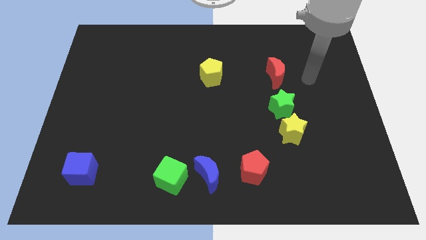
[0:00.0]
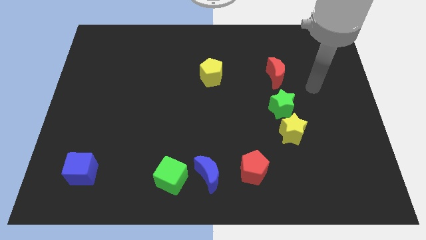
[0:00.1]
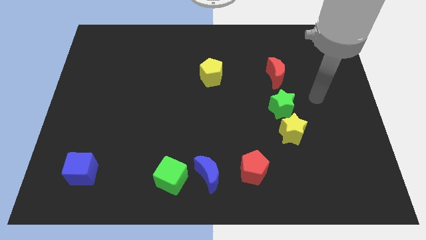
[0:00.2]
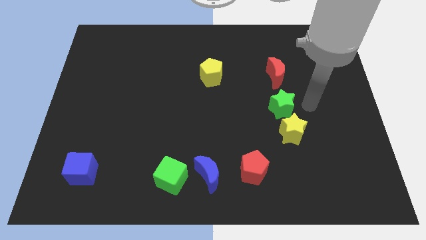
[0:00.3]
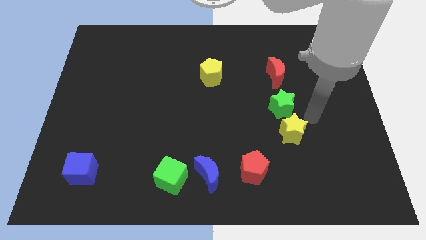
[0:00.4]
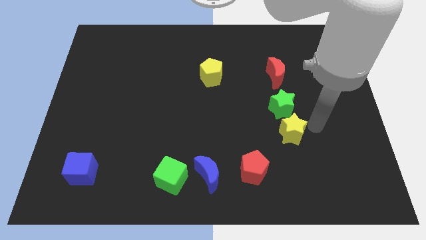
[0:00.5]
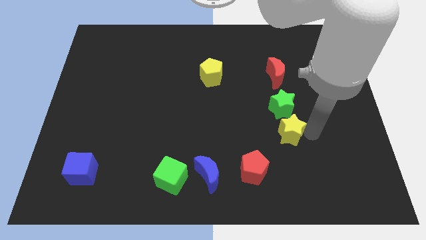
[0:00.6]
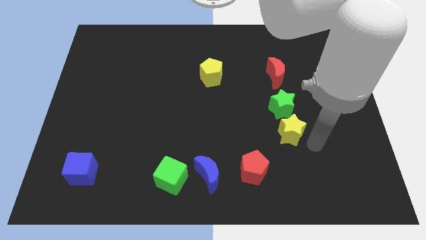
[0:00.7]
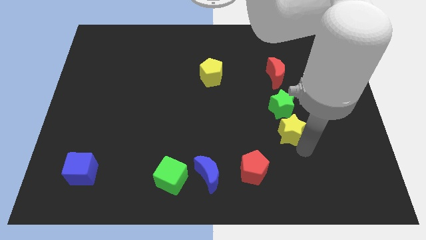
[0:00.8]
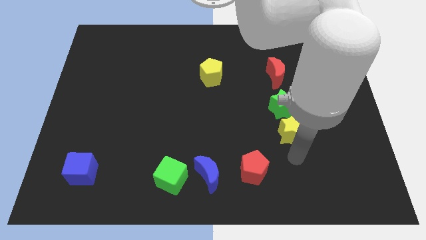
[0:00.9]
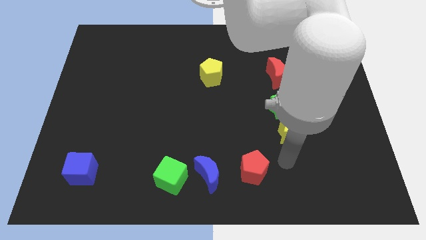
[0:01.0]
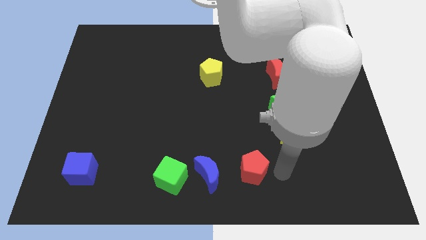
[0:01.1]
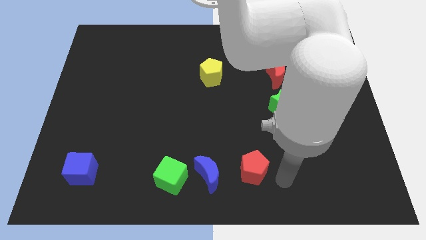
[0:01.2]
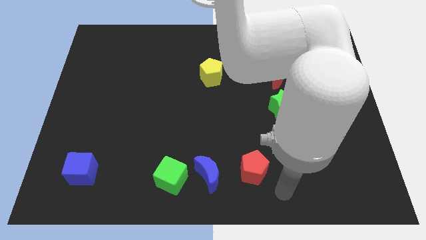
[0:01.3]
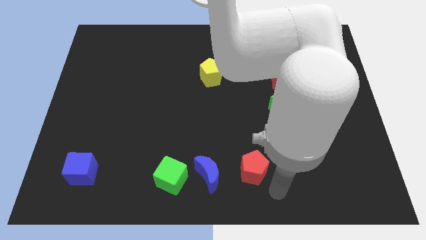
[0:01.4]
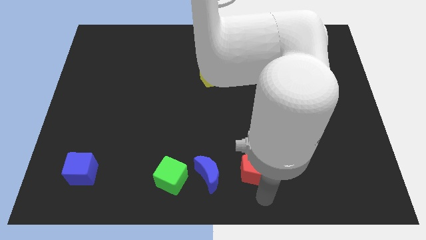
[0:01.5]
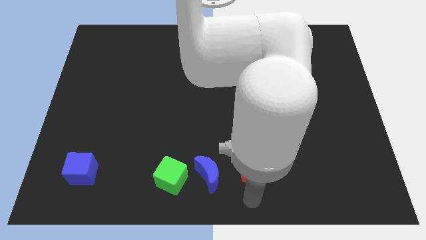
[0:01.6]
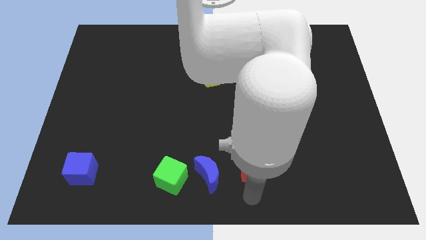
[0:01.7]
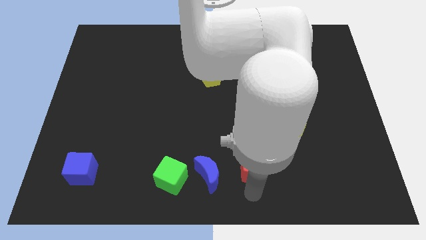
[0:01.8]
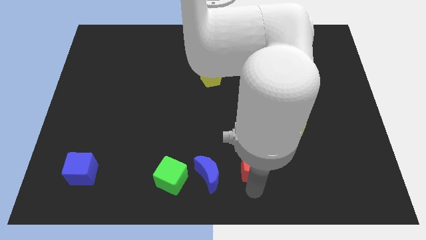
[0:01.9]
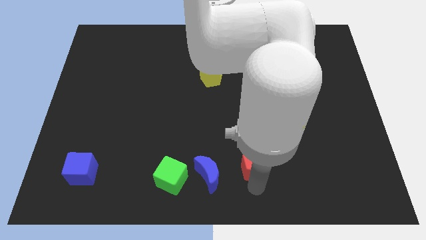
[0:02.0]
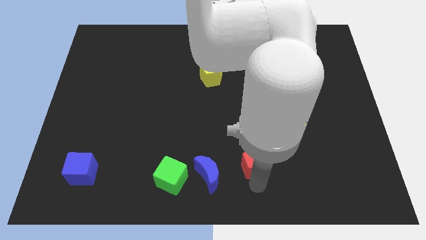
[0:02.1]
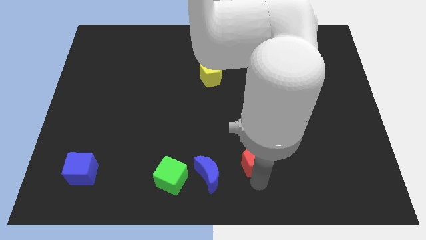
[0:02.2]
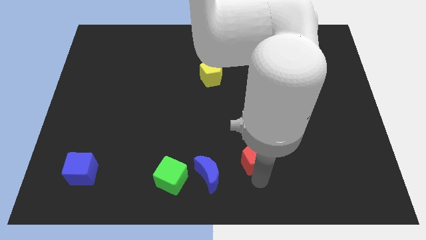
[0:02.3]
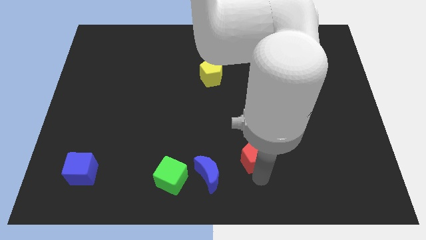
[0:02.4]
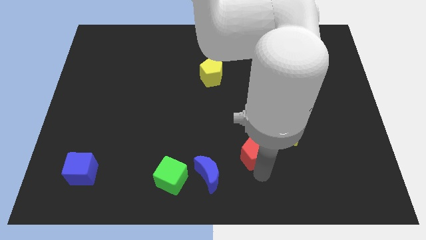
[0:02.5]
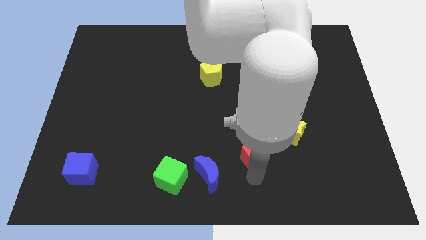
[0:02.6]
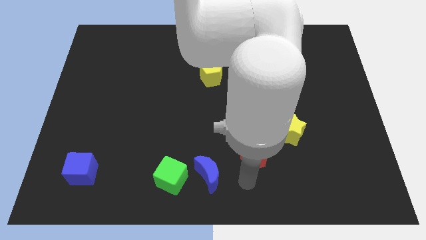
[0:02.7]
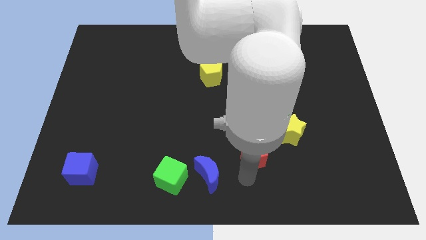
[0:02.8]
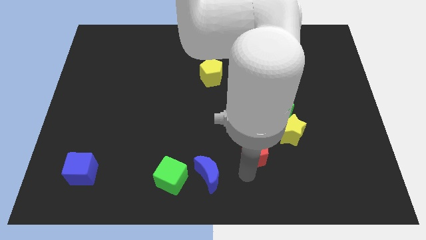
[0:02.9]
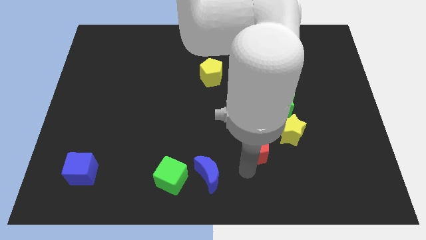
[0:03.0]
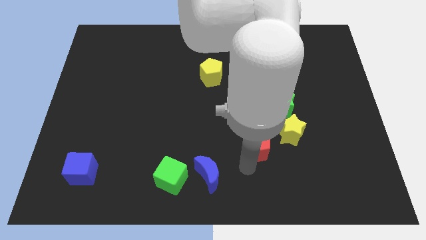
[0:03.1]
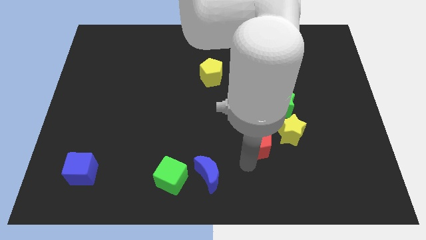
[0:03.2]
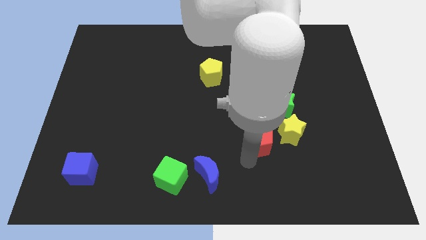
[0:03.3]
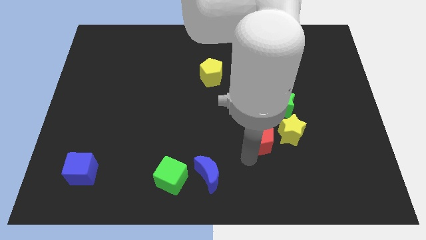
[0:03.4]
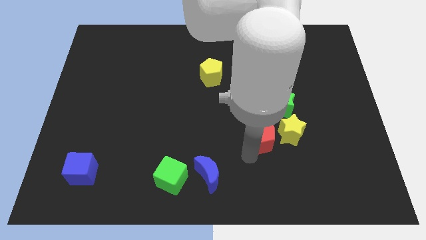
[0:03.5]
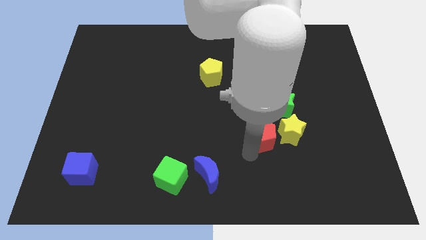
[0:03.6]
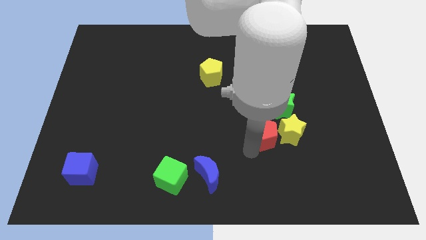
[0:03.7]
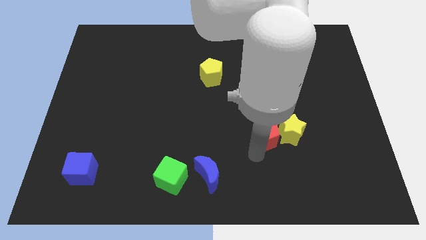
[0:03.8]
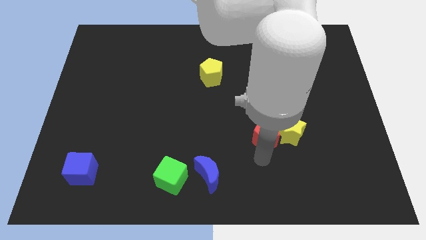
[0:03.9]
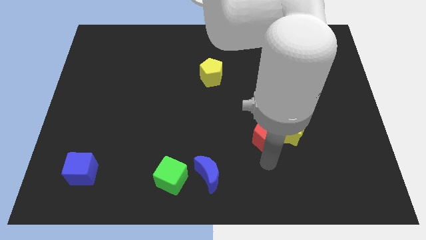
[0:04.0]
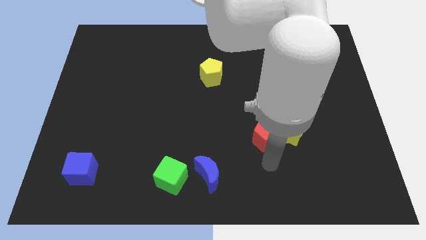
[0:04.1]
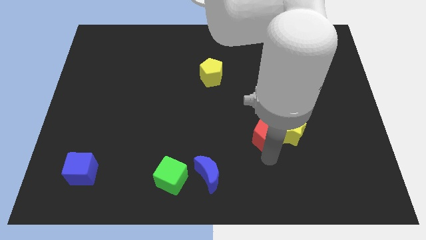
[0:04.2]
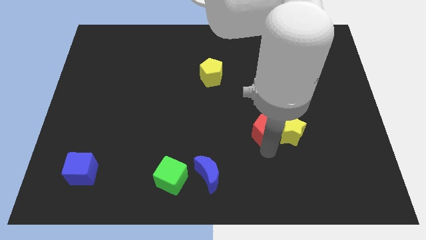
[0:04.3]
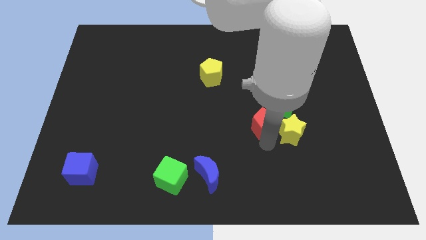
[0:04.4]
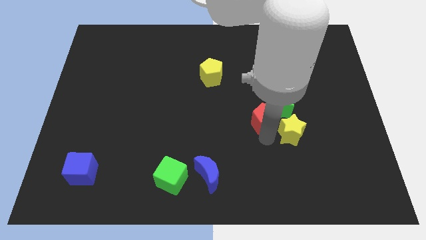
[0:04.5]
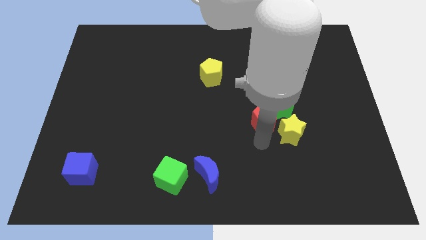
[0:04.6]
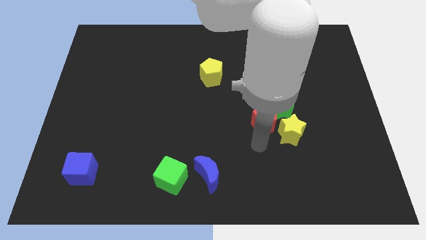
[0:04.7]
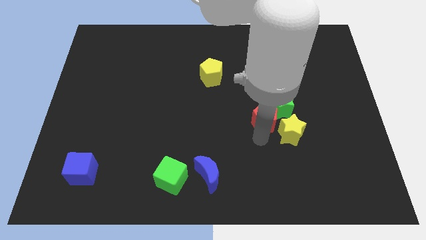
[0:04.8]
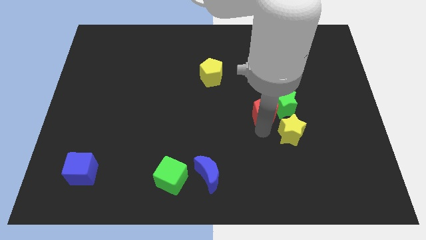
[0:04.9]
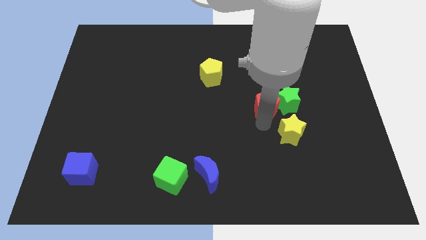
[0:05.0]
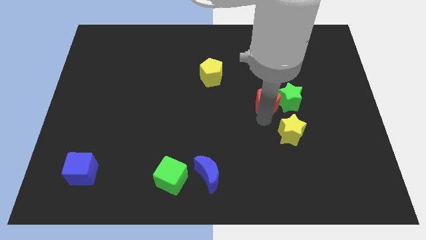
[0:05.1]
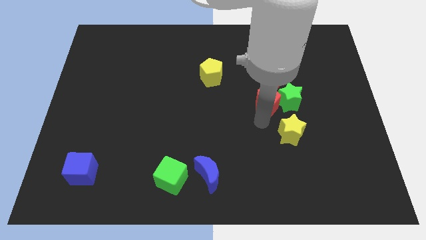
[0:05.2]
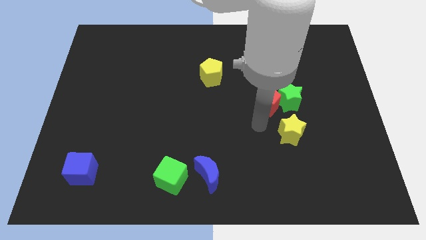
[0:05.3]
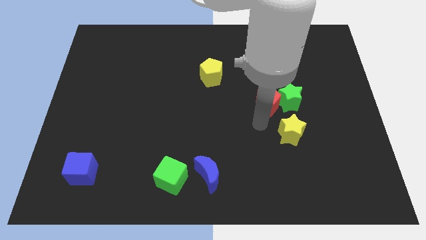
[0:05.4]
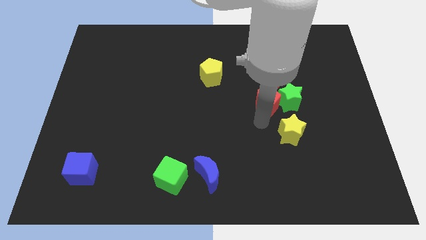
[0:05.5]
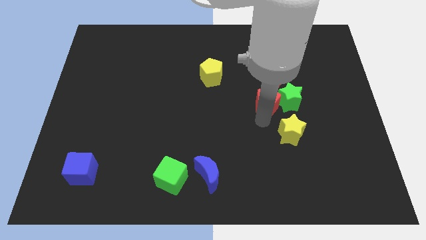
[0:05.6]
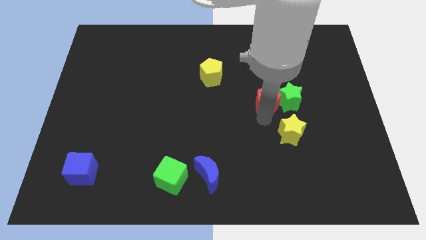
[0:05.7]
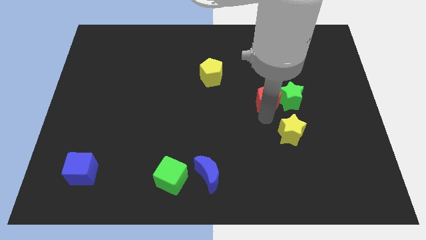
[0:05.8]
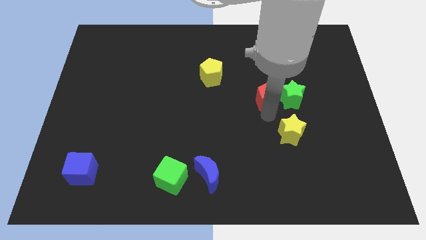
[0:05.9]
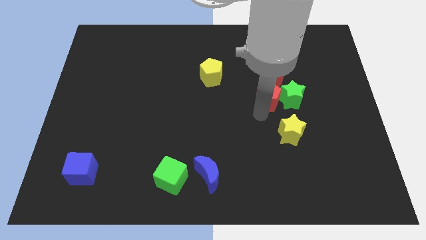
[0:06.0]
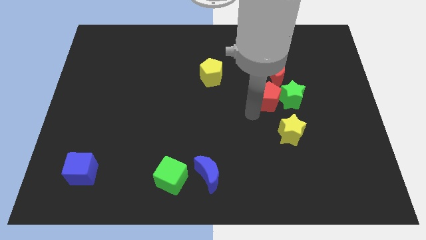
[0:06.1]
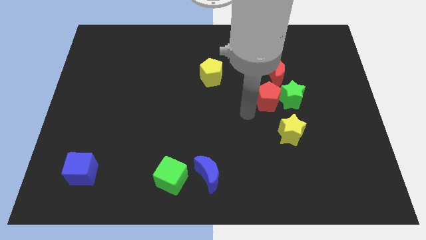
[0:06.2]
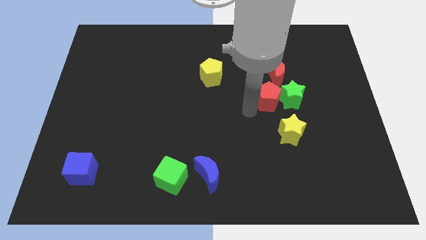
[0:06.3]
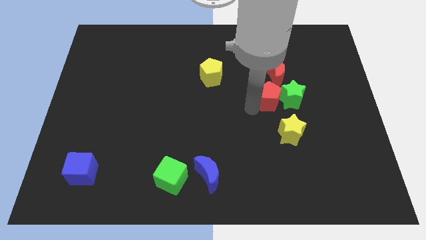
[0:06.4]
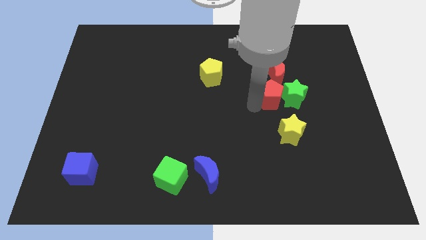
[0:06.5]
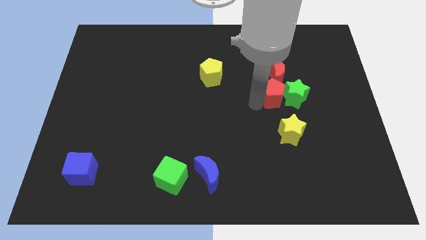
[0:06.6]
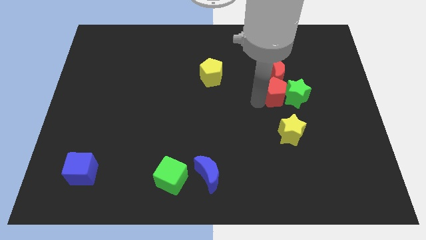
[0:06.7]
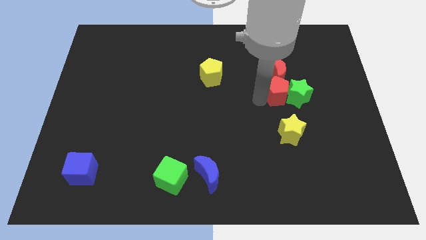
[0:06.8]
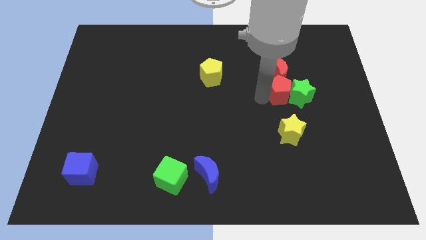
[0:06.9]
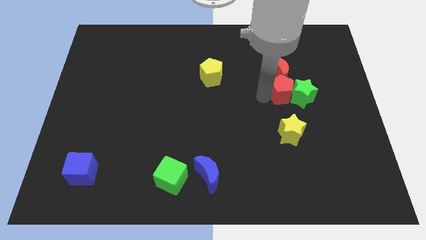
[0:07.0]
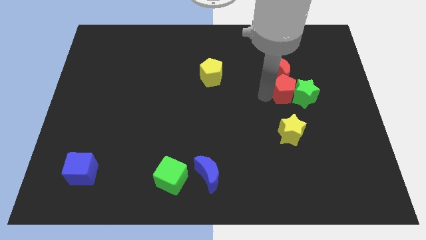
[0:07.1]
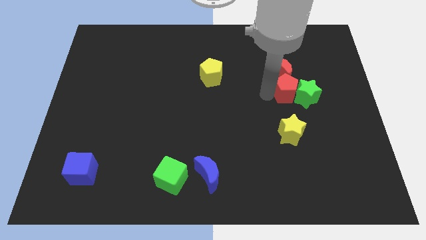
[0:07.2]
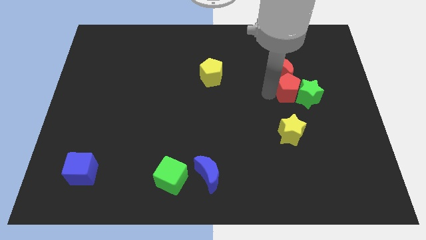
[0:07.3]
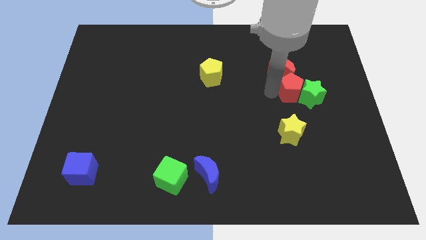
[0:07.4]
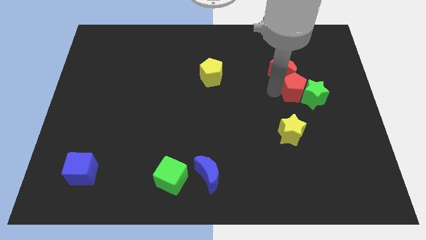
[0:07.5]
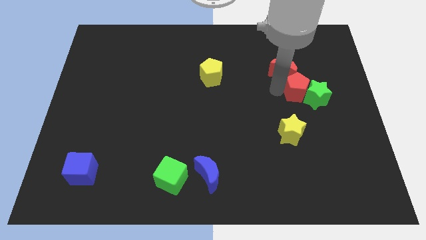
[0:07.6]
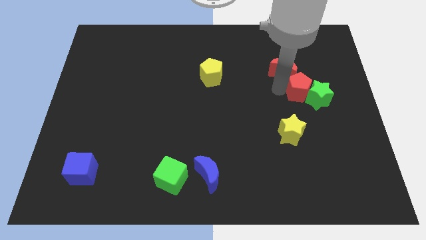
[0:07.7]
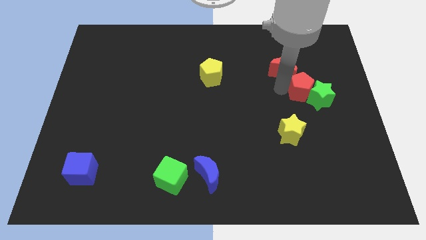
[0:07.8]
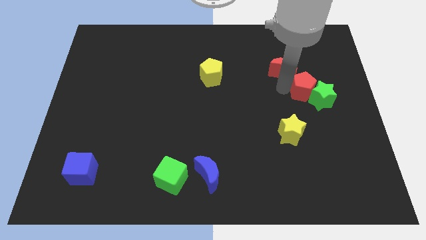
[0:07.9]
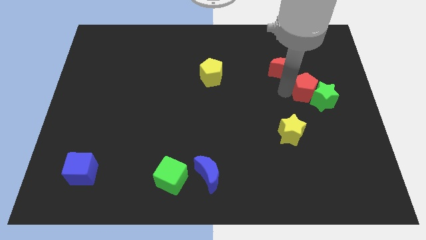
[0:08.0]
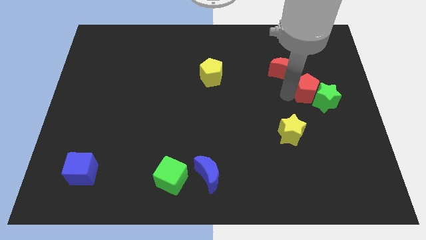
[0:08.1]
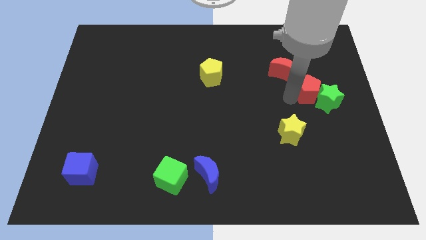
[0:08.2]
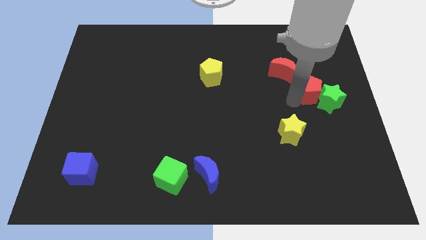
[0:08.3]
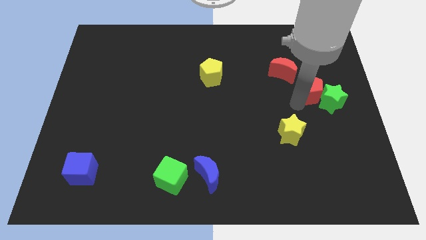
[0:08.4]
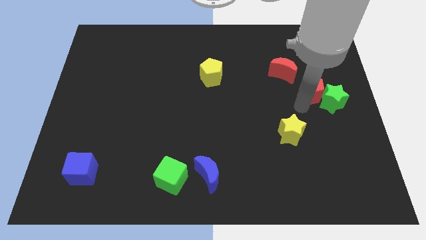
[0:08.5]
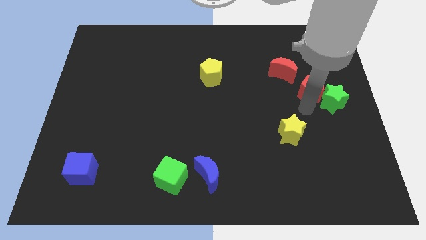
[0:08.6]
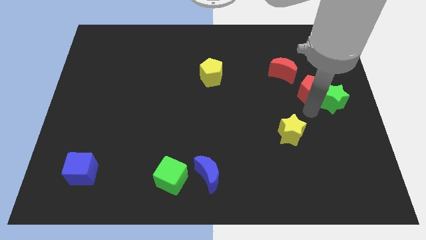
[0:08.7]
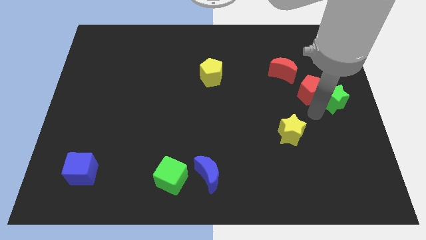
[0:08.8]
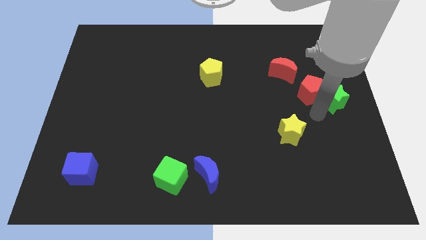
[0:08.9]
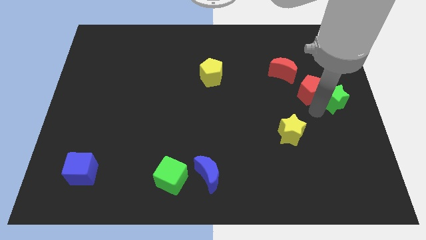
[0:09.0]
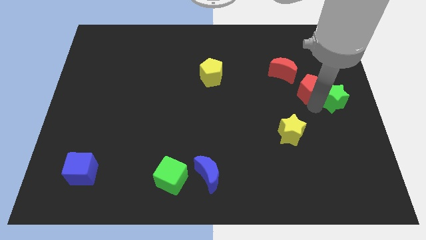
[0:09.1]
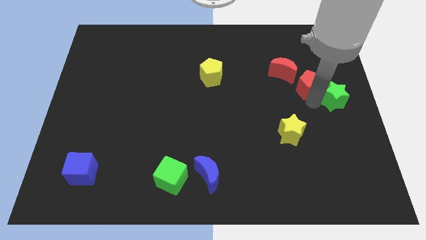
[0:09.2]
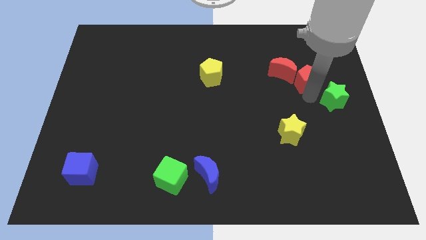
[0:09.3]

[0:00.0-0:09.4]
move the red pentagon right of the red moon
